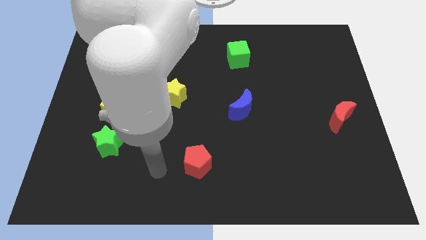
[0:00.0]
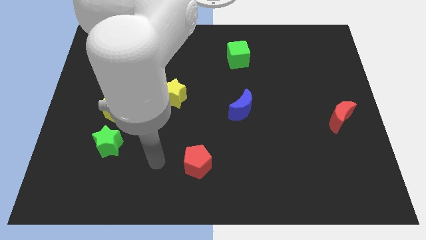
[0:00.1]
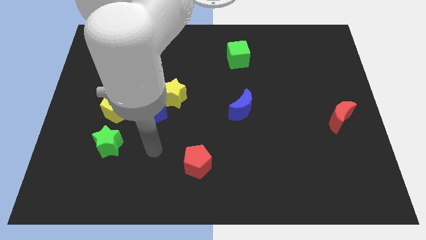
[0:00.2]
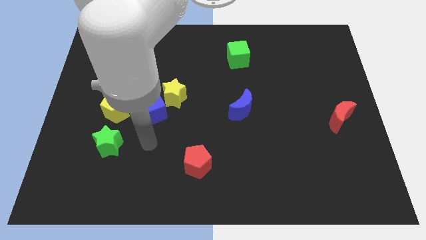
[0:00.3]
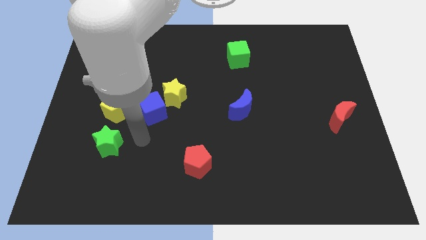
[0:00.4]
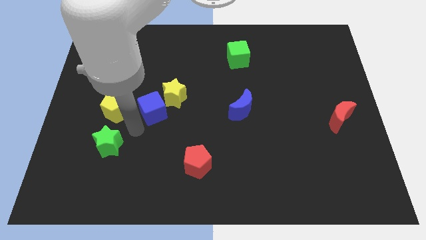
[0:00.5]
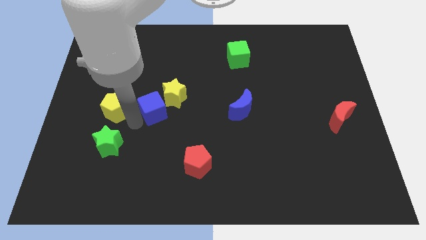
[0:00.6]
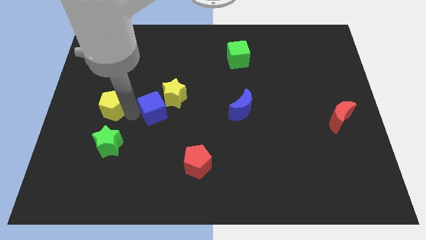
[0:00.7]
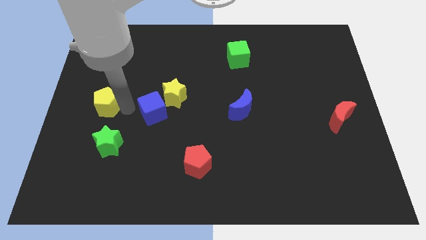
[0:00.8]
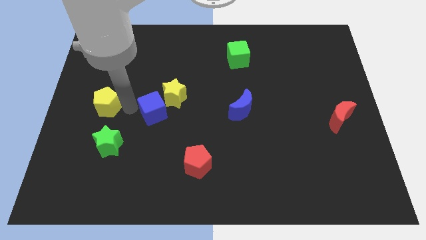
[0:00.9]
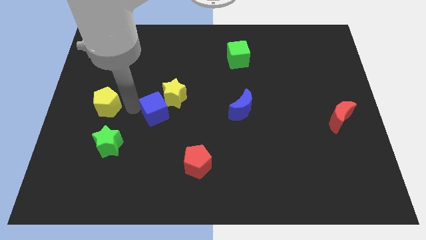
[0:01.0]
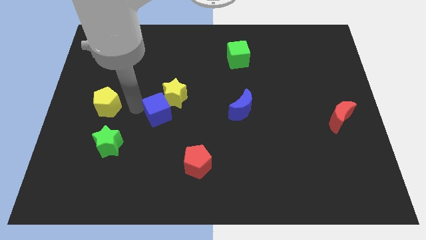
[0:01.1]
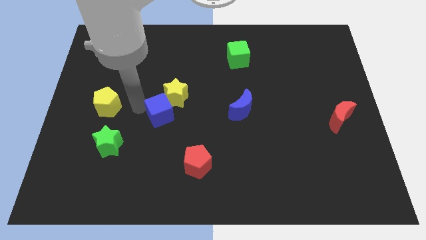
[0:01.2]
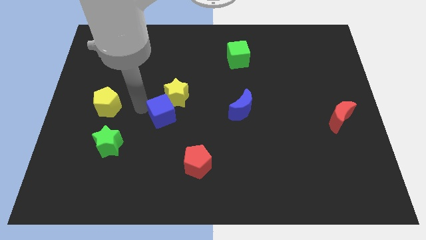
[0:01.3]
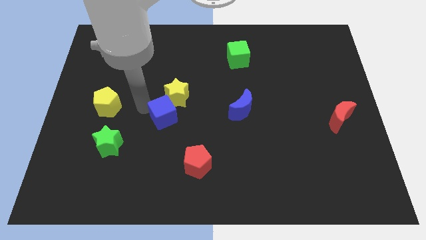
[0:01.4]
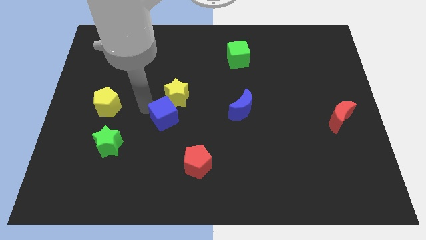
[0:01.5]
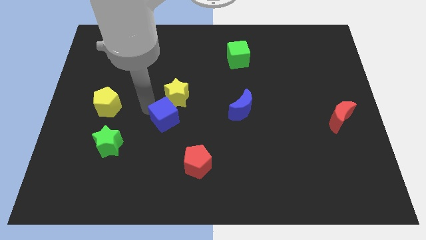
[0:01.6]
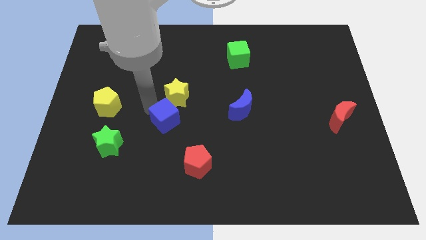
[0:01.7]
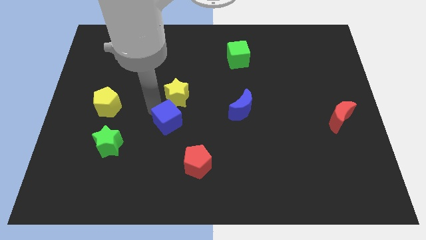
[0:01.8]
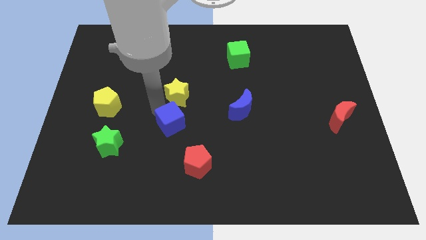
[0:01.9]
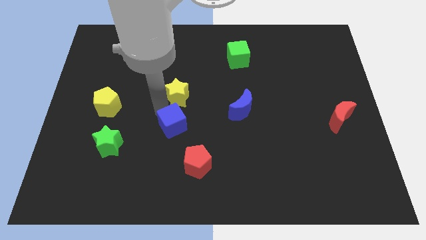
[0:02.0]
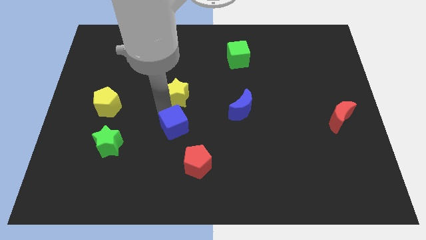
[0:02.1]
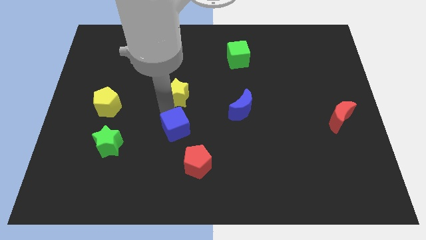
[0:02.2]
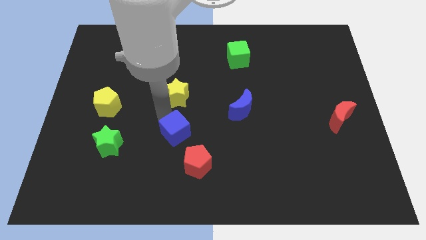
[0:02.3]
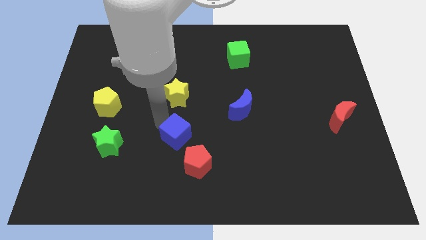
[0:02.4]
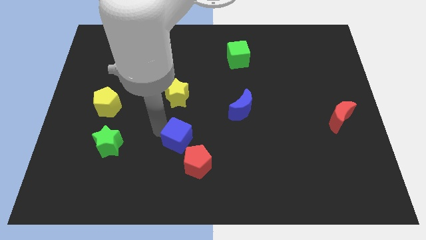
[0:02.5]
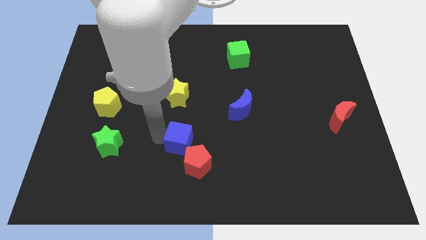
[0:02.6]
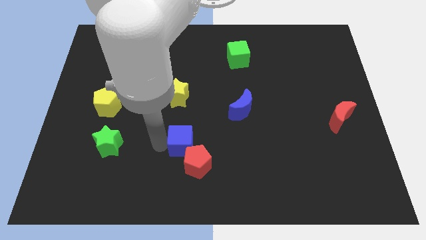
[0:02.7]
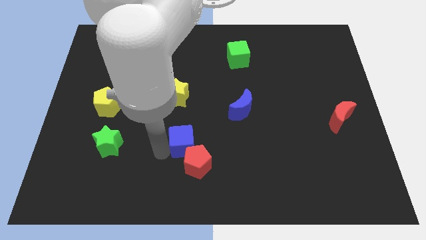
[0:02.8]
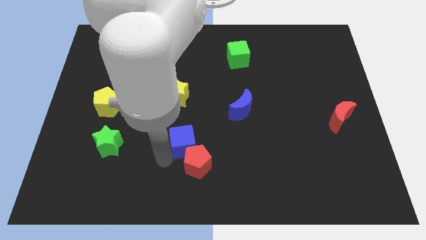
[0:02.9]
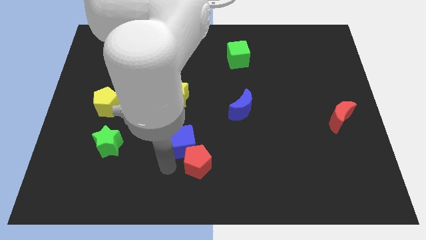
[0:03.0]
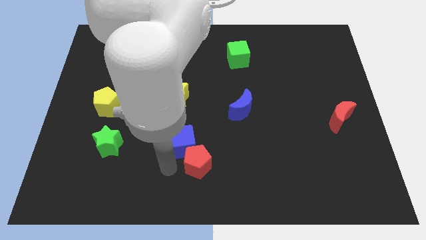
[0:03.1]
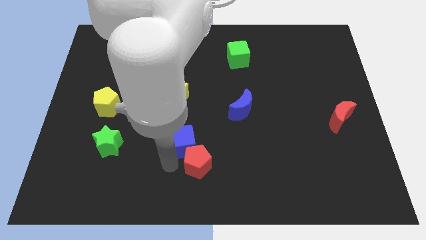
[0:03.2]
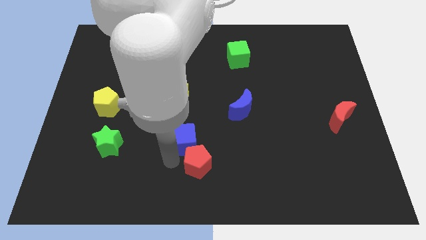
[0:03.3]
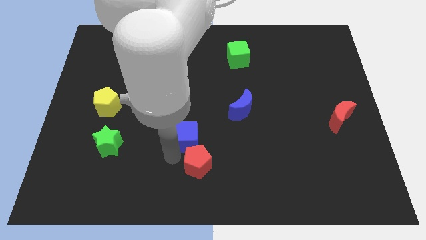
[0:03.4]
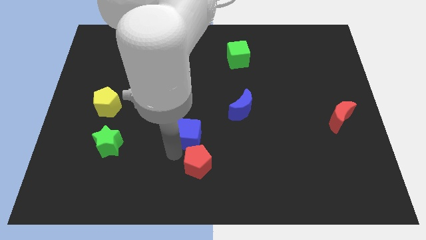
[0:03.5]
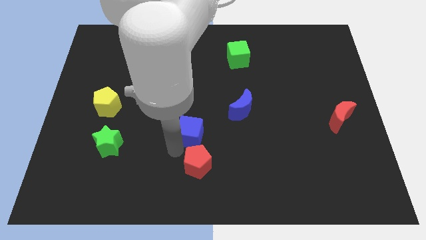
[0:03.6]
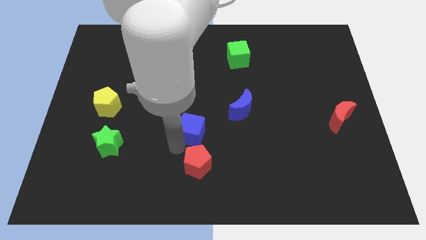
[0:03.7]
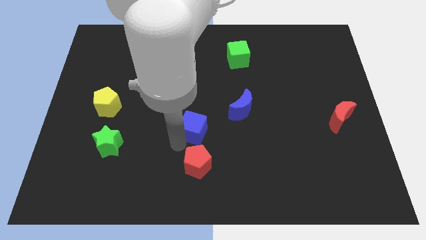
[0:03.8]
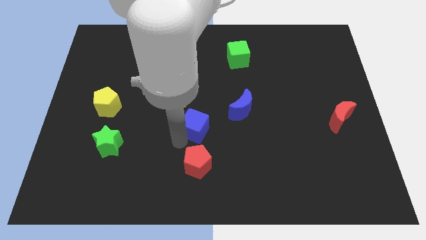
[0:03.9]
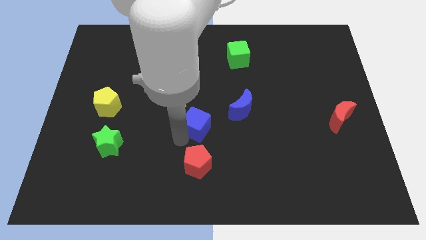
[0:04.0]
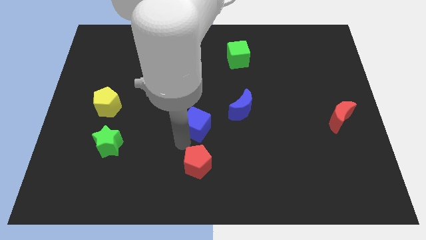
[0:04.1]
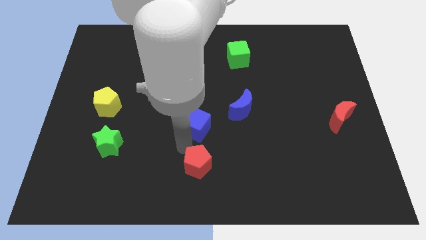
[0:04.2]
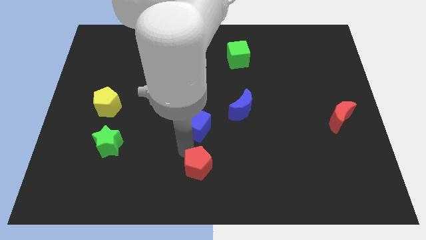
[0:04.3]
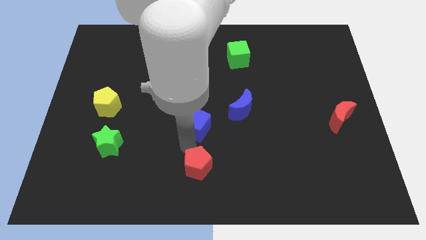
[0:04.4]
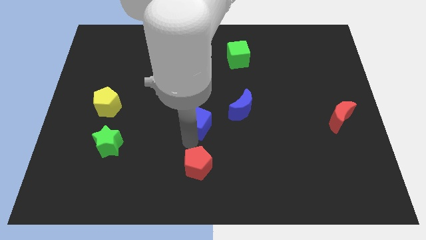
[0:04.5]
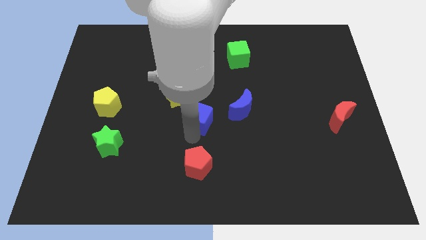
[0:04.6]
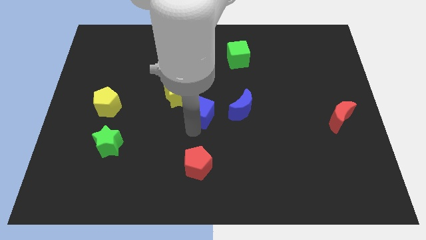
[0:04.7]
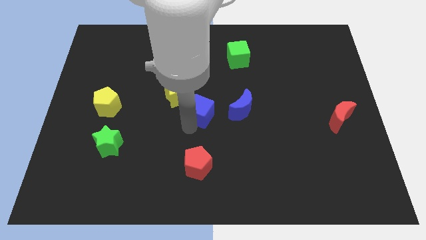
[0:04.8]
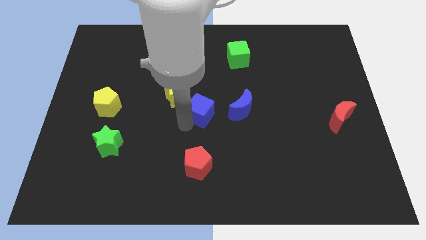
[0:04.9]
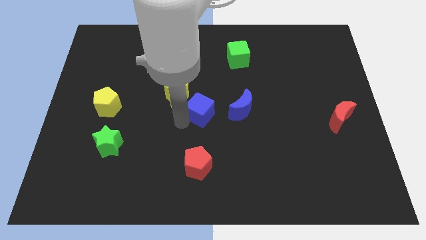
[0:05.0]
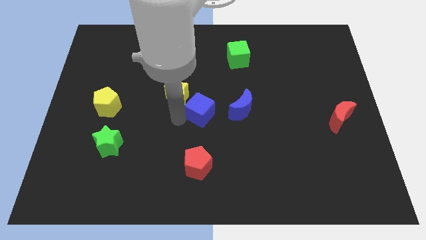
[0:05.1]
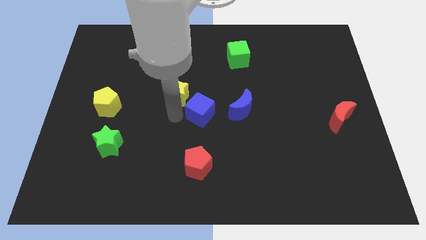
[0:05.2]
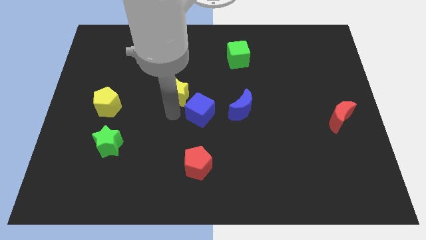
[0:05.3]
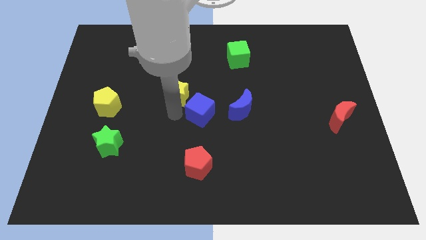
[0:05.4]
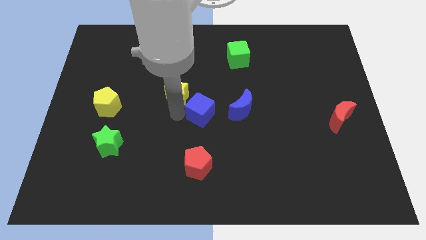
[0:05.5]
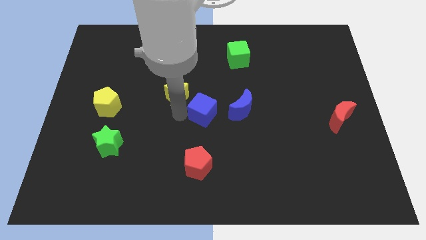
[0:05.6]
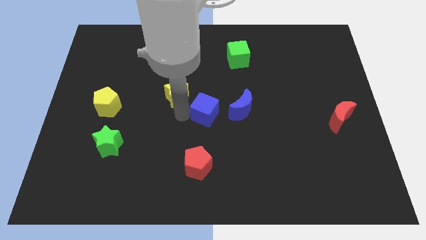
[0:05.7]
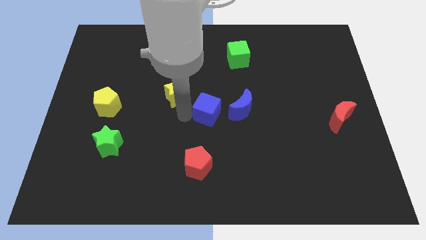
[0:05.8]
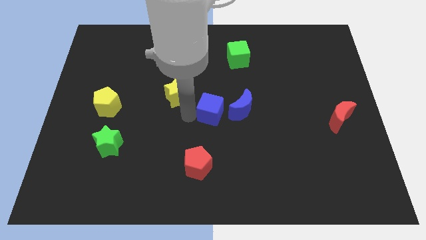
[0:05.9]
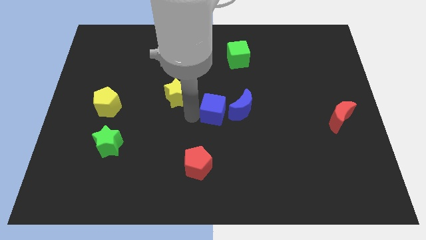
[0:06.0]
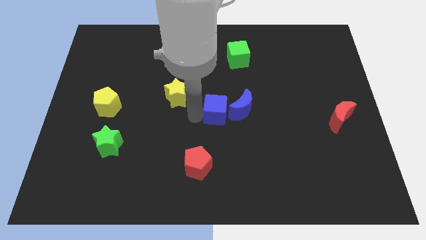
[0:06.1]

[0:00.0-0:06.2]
put the blue cube close to the blue moon
